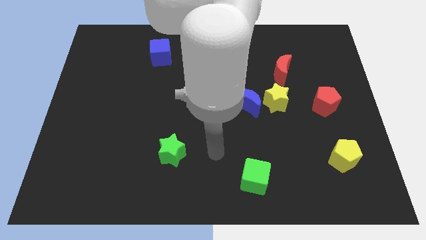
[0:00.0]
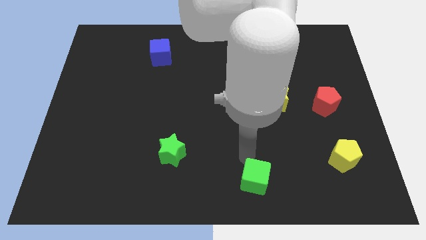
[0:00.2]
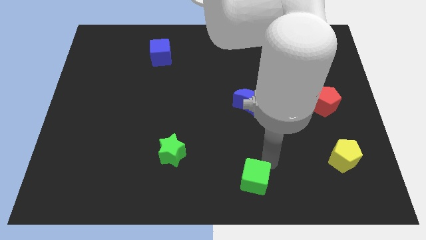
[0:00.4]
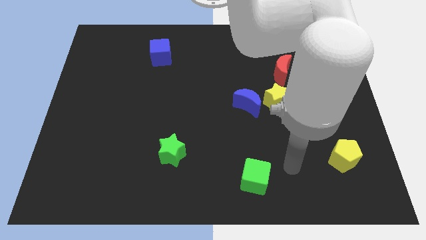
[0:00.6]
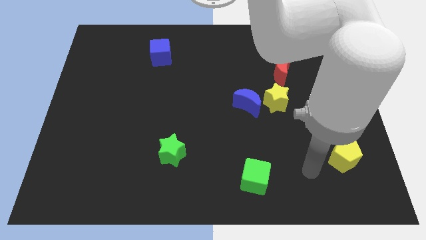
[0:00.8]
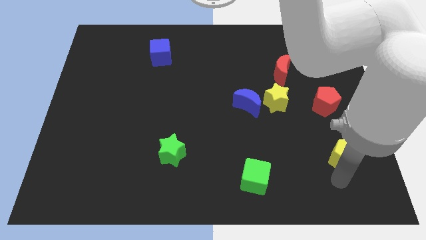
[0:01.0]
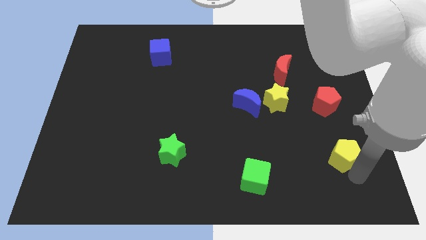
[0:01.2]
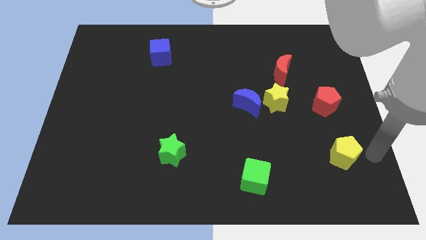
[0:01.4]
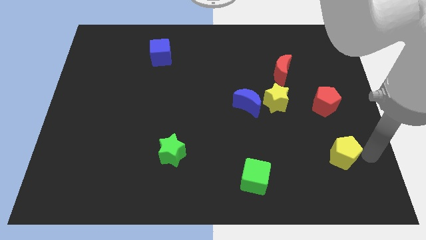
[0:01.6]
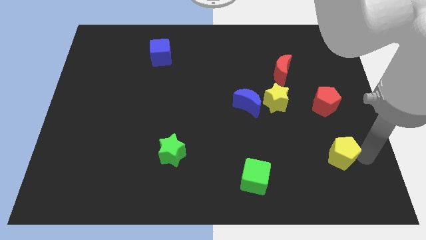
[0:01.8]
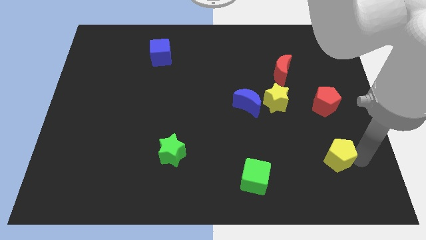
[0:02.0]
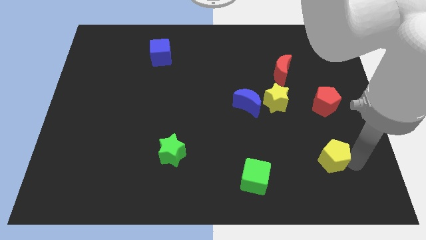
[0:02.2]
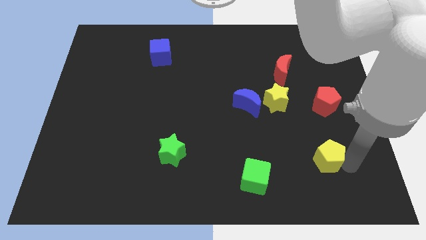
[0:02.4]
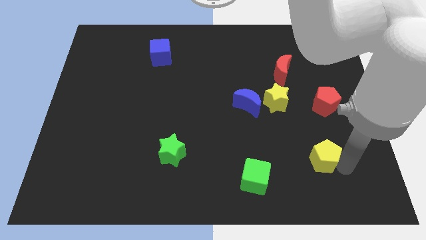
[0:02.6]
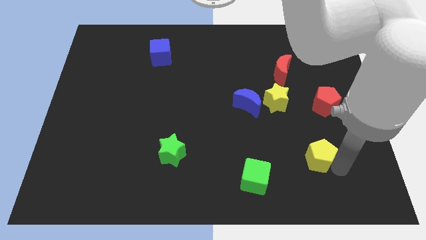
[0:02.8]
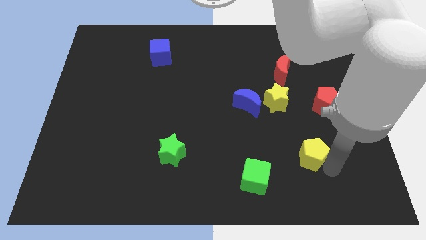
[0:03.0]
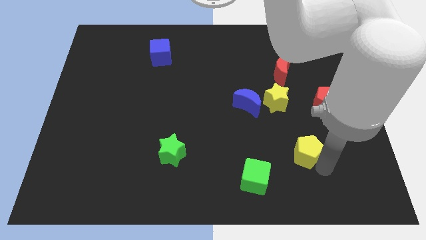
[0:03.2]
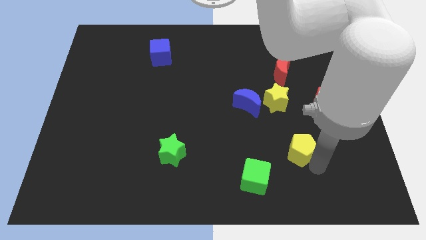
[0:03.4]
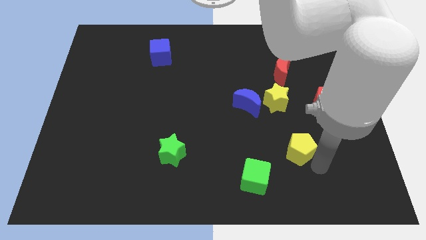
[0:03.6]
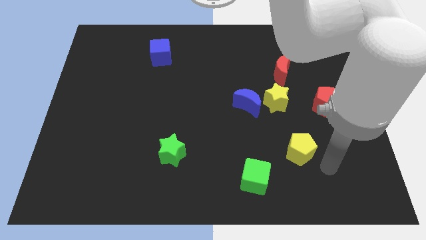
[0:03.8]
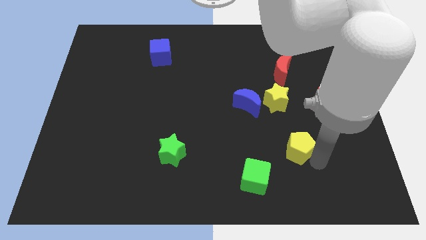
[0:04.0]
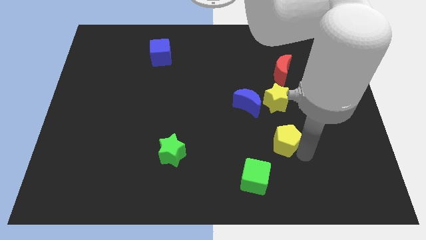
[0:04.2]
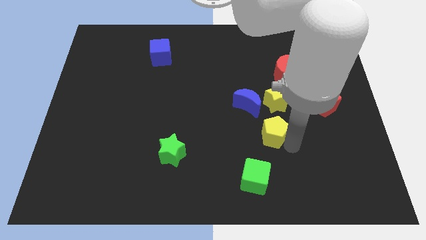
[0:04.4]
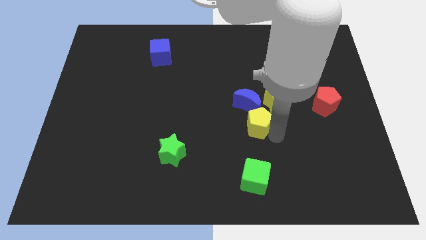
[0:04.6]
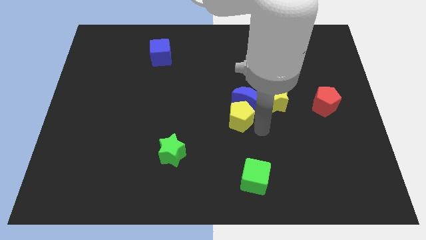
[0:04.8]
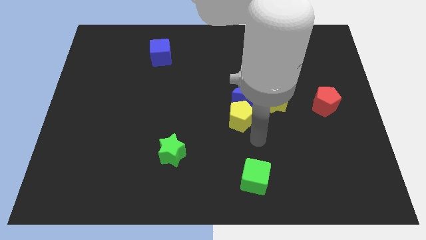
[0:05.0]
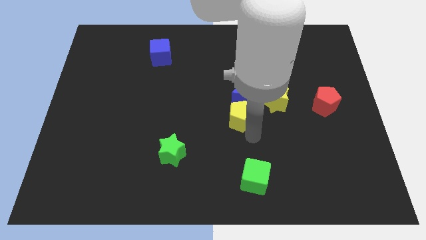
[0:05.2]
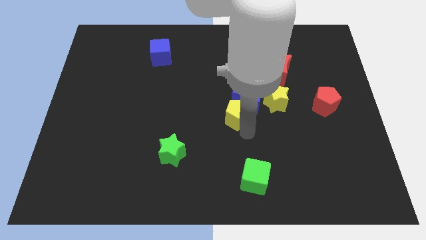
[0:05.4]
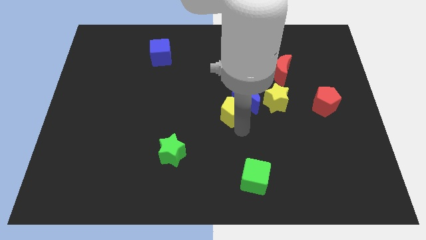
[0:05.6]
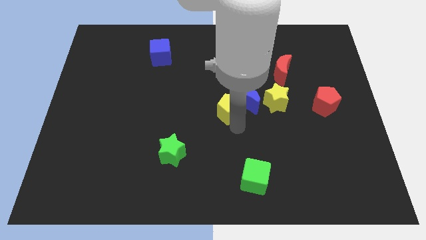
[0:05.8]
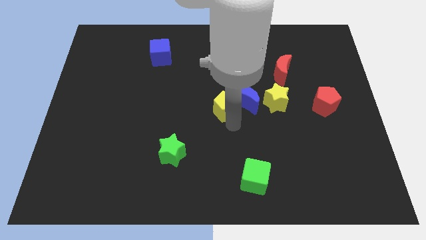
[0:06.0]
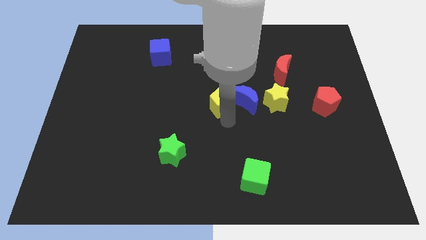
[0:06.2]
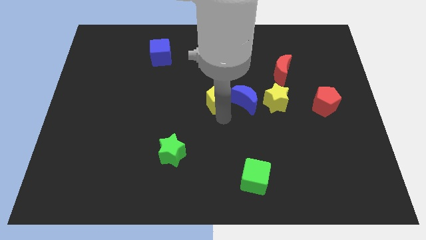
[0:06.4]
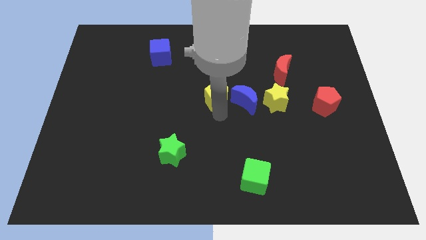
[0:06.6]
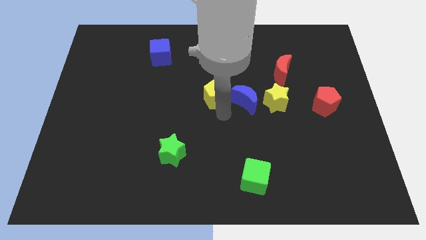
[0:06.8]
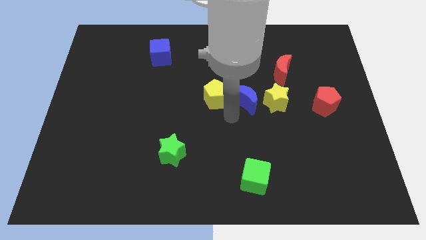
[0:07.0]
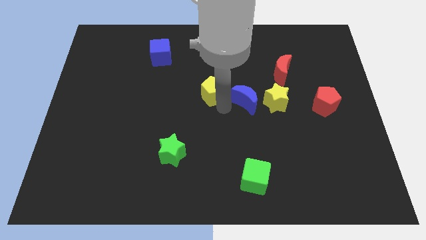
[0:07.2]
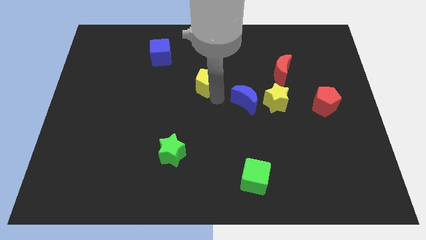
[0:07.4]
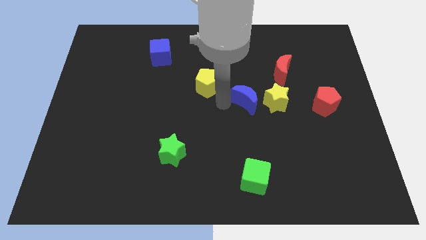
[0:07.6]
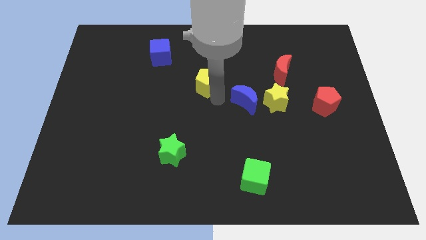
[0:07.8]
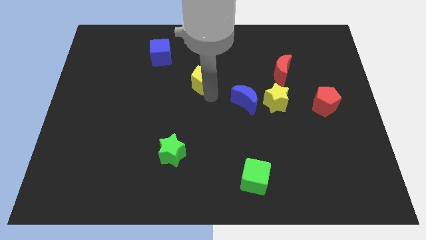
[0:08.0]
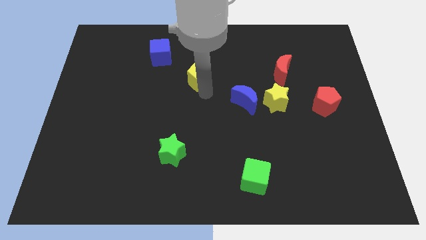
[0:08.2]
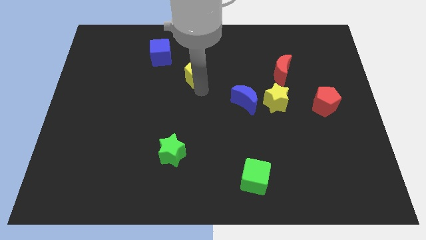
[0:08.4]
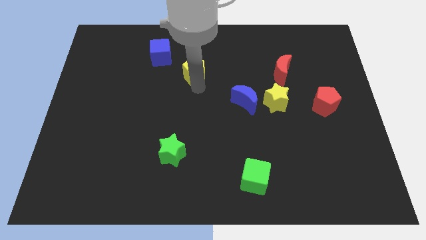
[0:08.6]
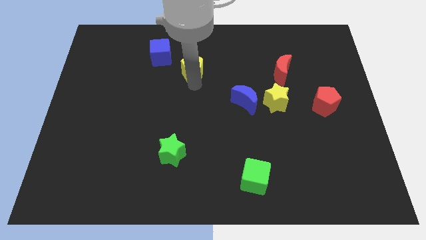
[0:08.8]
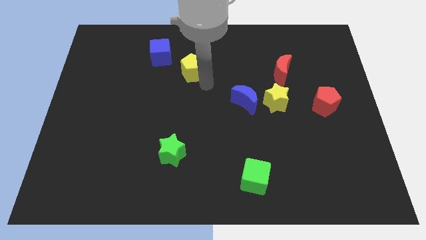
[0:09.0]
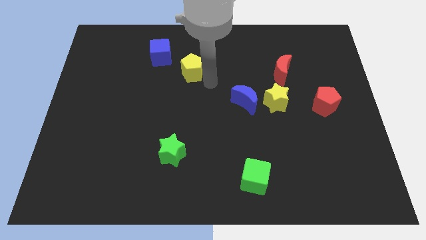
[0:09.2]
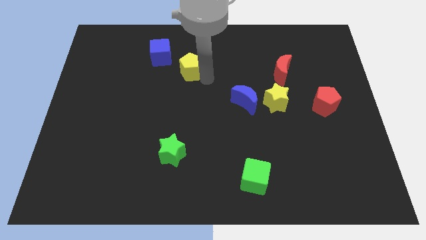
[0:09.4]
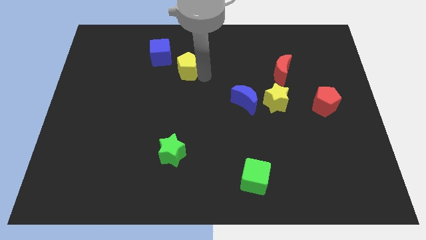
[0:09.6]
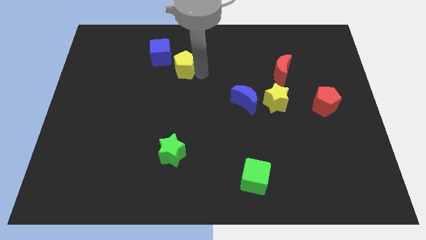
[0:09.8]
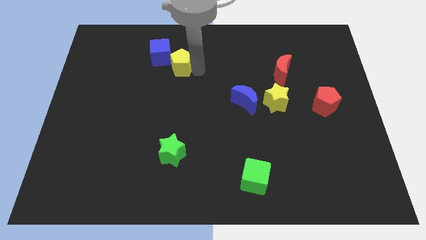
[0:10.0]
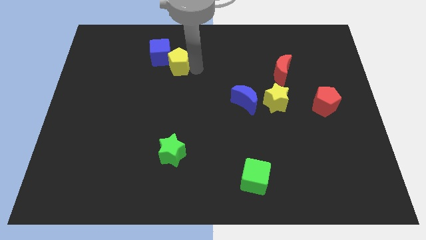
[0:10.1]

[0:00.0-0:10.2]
put the yellow pentagon to the blue cube

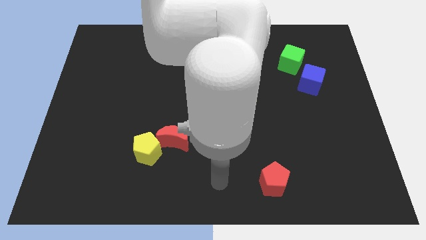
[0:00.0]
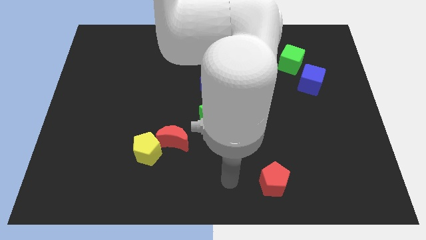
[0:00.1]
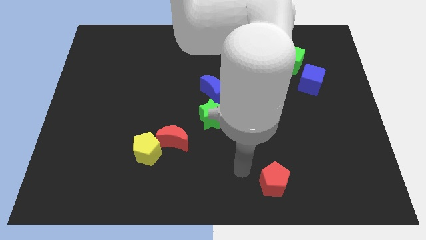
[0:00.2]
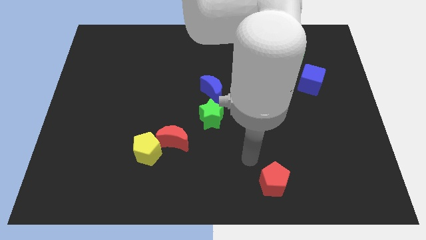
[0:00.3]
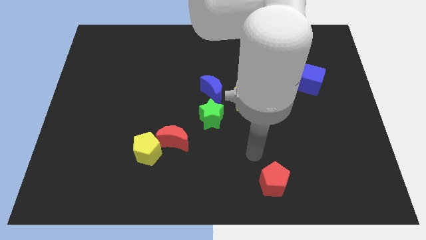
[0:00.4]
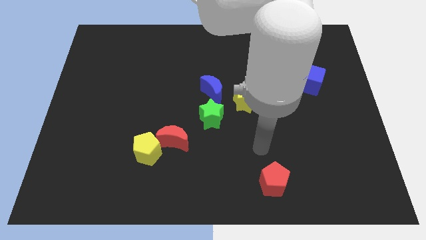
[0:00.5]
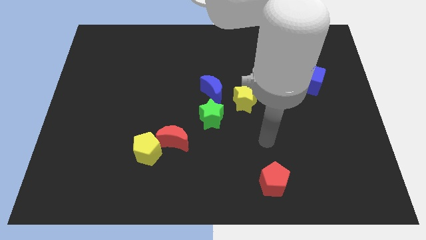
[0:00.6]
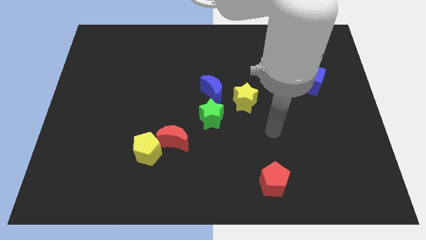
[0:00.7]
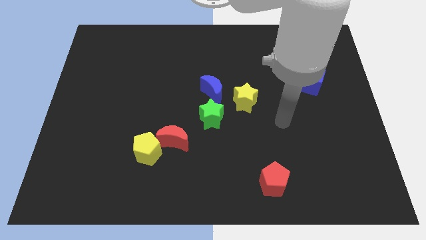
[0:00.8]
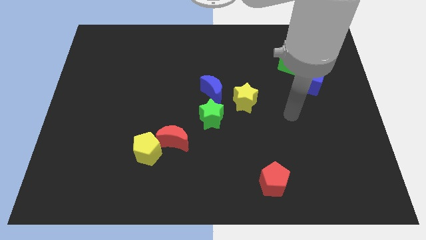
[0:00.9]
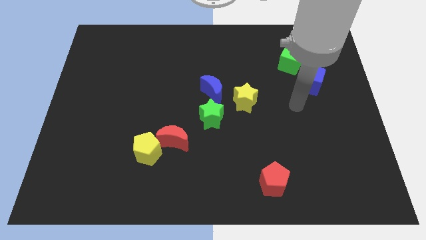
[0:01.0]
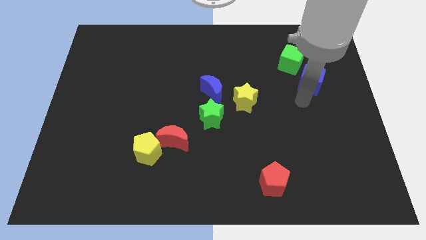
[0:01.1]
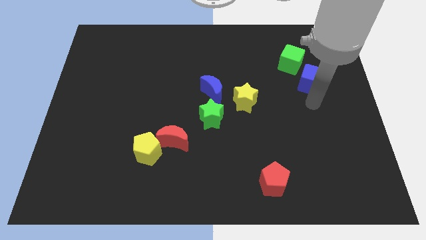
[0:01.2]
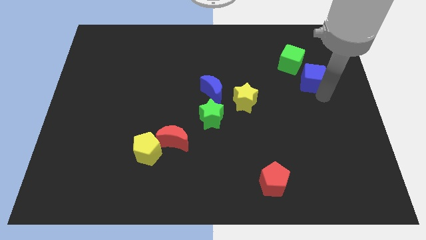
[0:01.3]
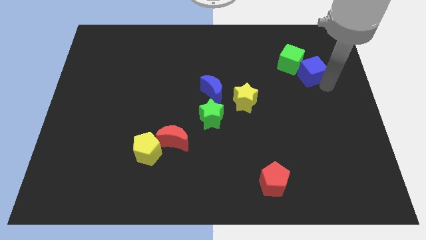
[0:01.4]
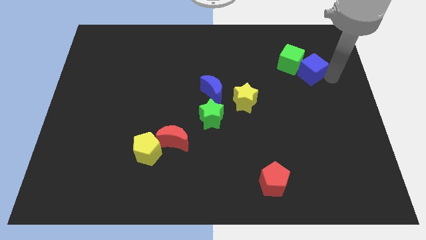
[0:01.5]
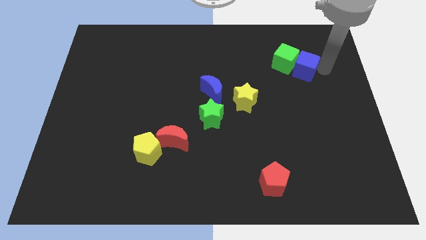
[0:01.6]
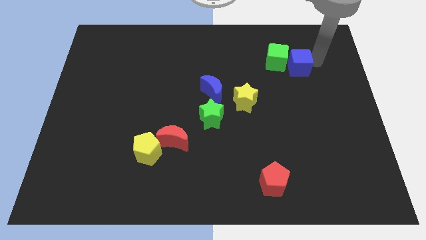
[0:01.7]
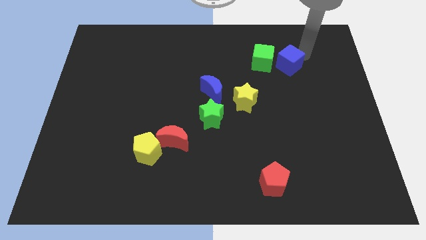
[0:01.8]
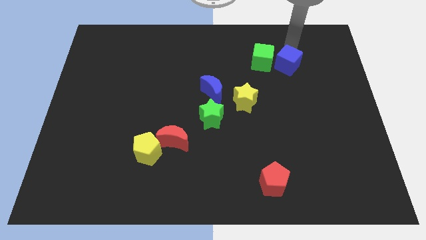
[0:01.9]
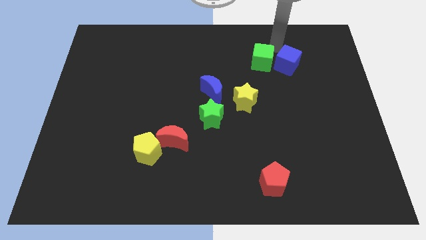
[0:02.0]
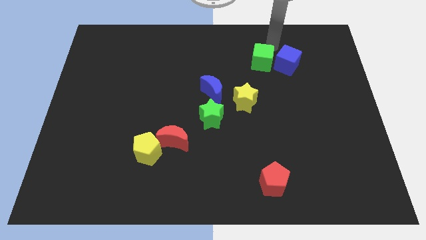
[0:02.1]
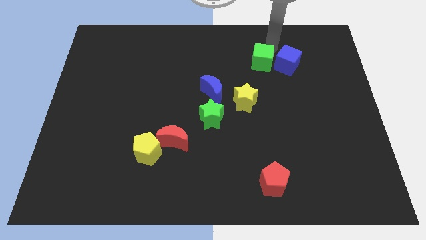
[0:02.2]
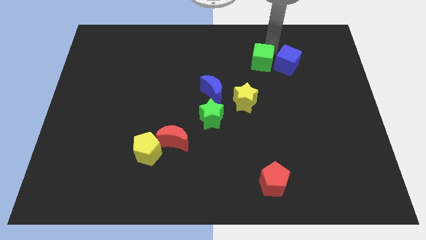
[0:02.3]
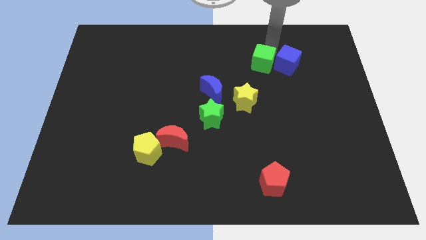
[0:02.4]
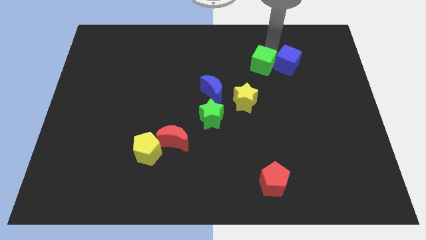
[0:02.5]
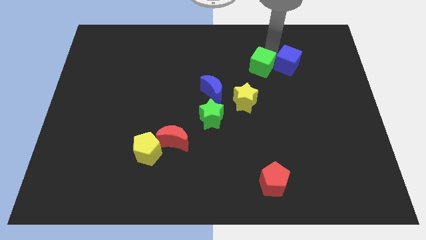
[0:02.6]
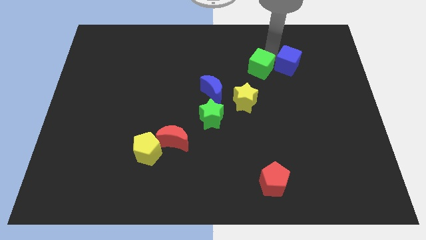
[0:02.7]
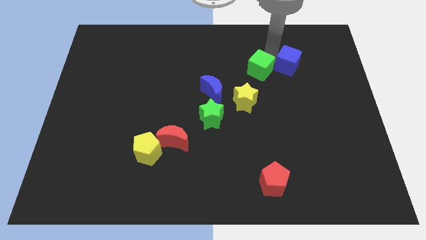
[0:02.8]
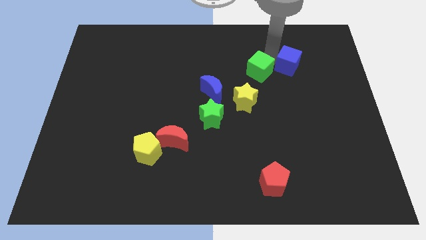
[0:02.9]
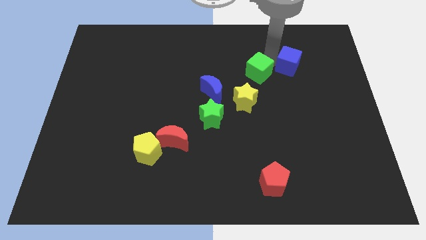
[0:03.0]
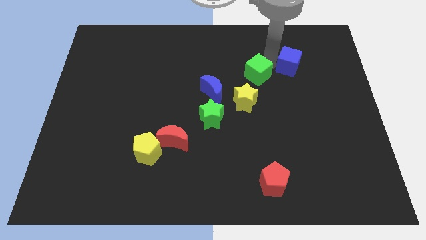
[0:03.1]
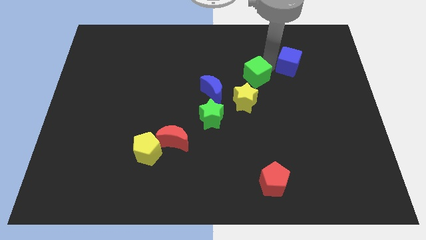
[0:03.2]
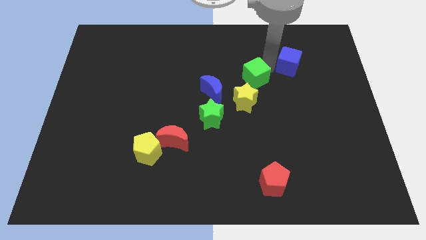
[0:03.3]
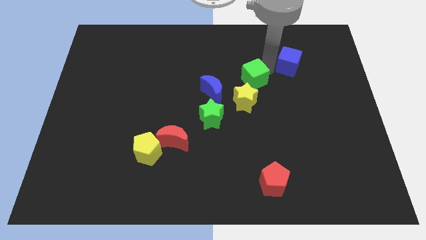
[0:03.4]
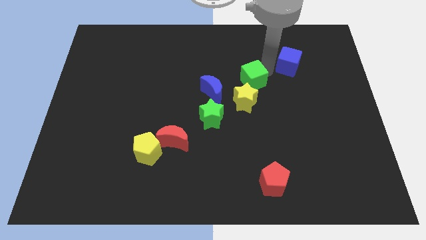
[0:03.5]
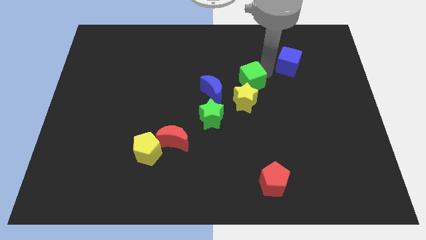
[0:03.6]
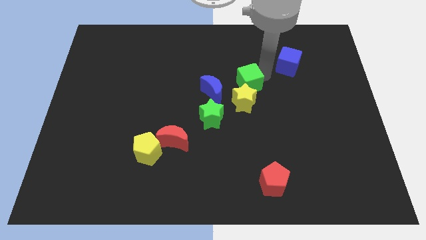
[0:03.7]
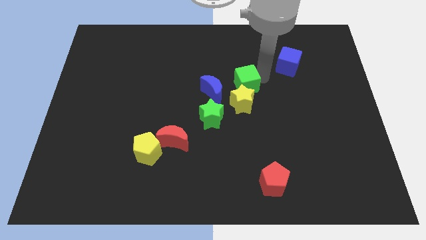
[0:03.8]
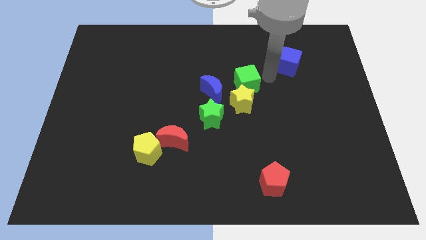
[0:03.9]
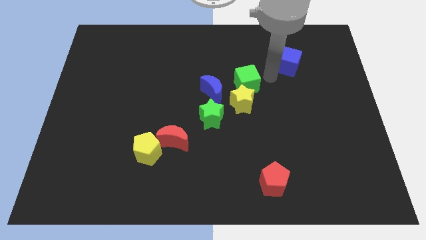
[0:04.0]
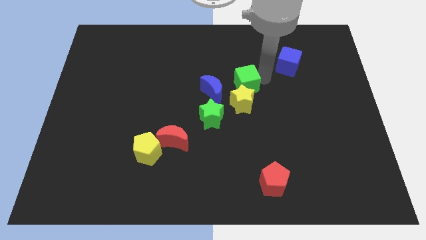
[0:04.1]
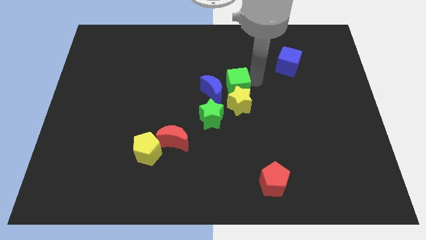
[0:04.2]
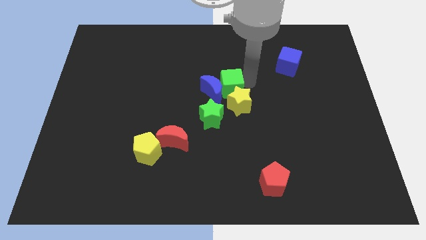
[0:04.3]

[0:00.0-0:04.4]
move the green cube to the blue moon
